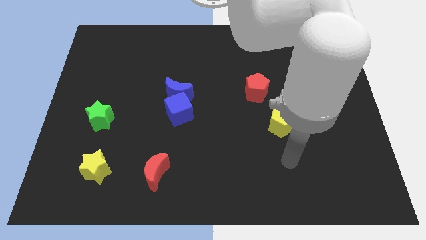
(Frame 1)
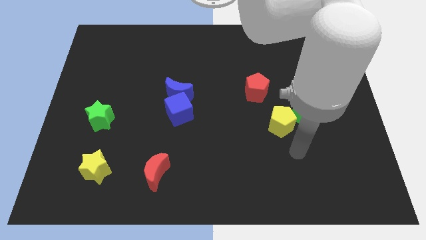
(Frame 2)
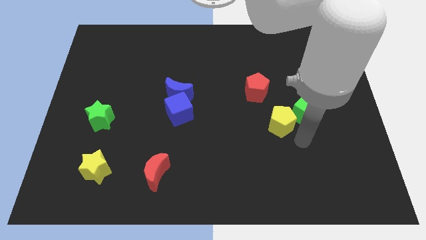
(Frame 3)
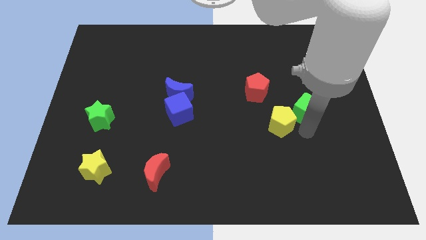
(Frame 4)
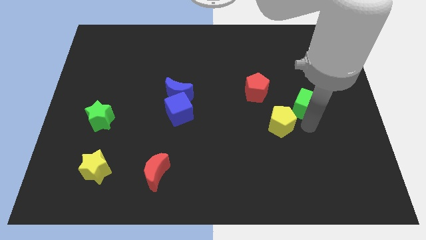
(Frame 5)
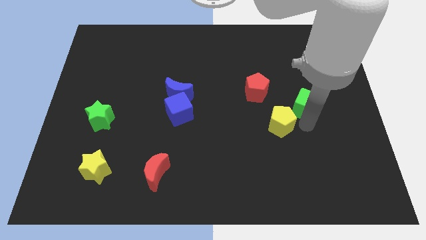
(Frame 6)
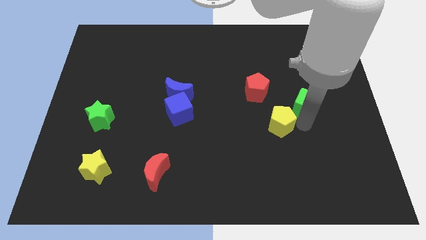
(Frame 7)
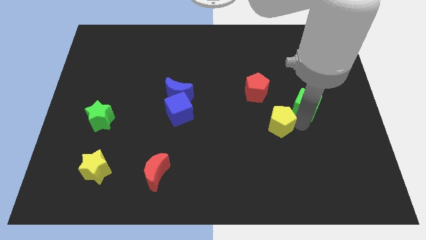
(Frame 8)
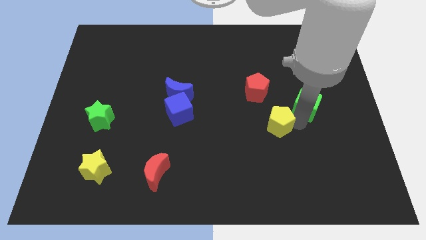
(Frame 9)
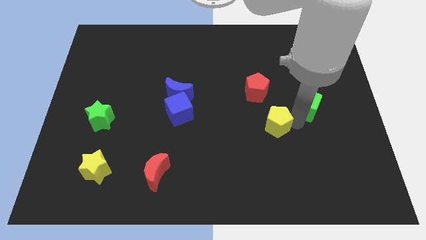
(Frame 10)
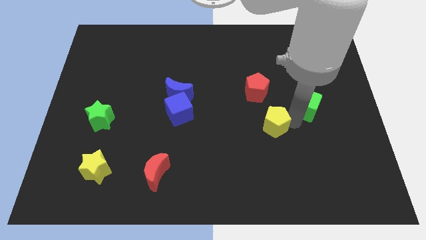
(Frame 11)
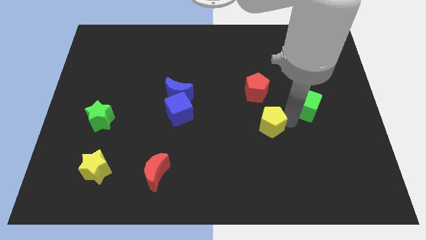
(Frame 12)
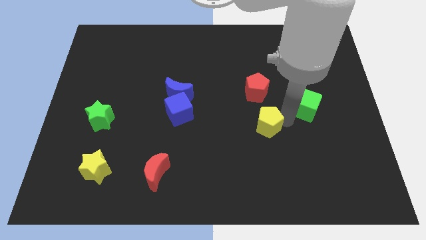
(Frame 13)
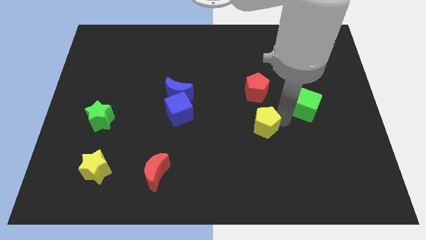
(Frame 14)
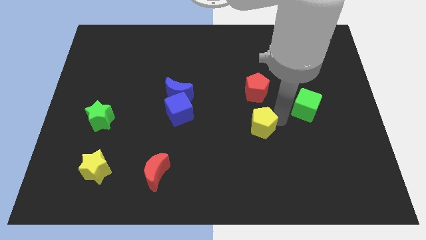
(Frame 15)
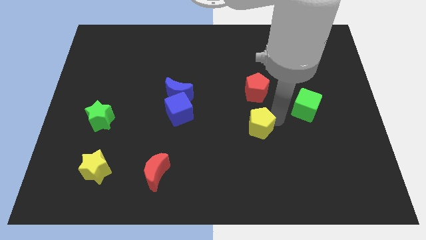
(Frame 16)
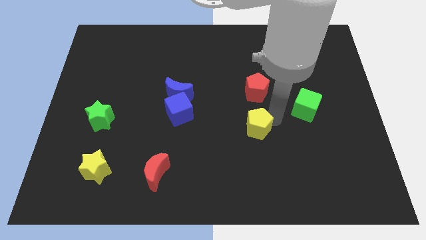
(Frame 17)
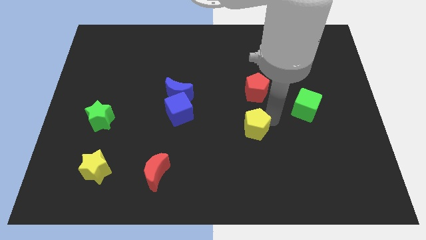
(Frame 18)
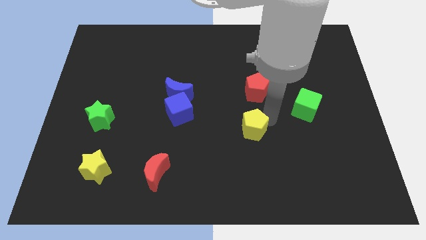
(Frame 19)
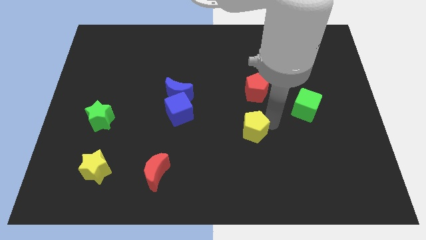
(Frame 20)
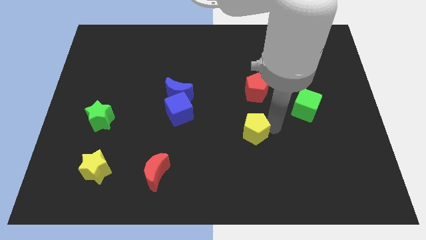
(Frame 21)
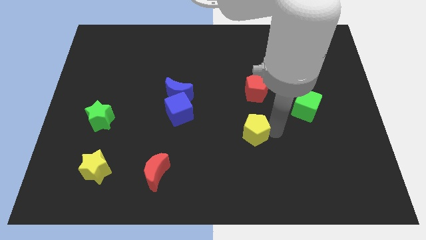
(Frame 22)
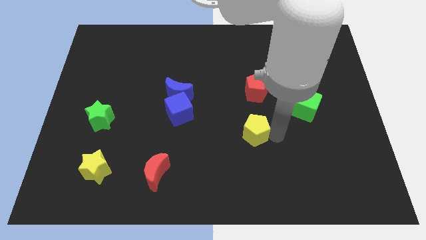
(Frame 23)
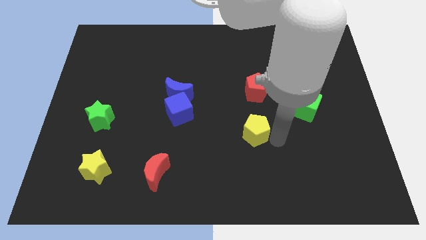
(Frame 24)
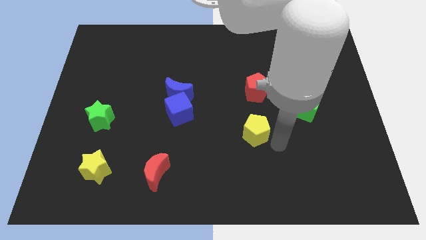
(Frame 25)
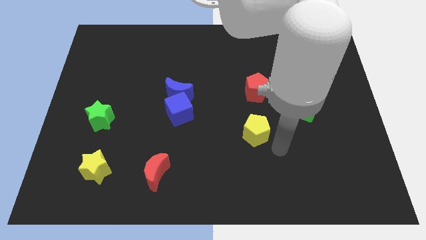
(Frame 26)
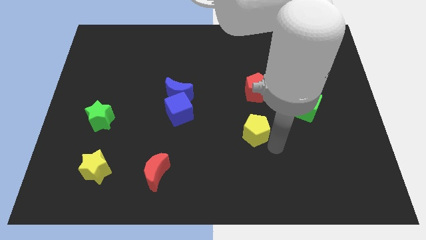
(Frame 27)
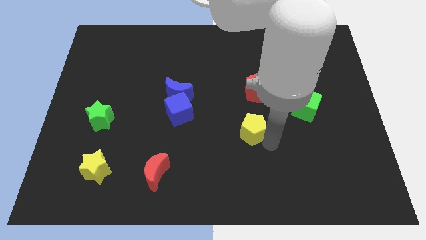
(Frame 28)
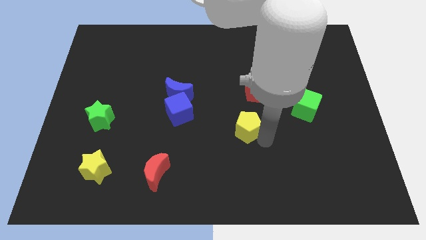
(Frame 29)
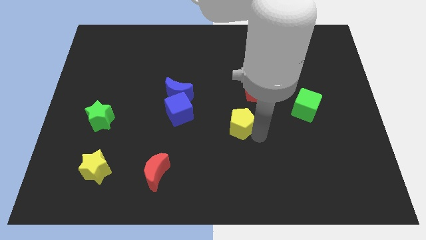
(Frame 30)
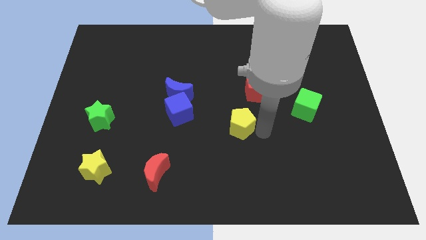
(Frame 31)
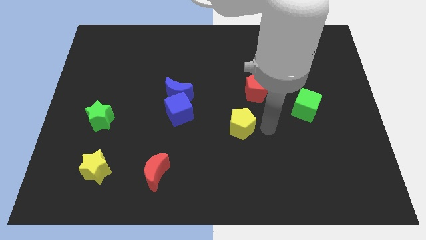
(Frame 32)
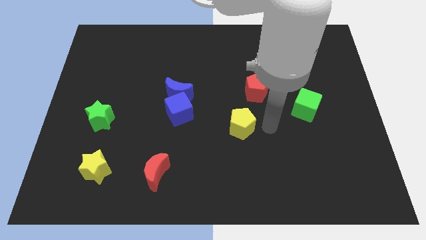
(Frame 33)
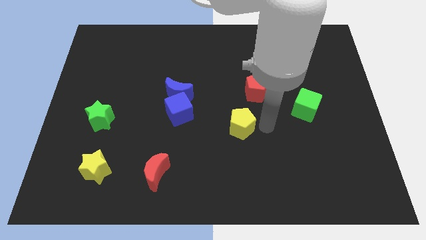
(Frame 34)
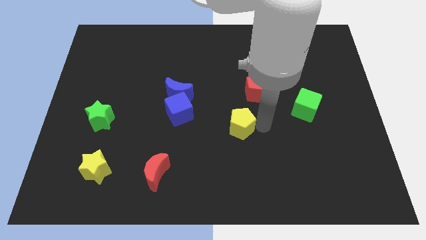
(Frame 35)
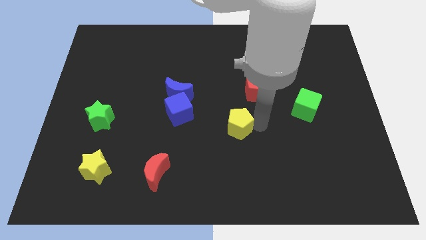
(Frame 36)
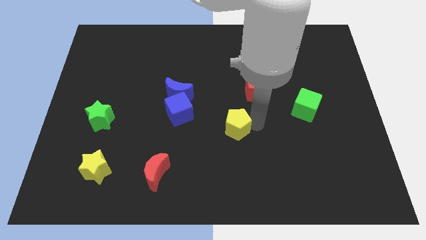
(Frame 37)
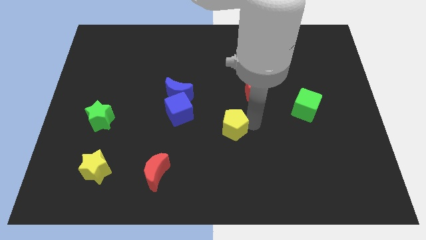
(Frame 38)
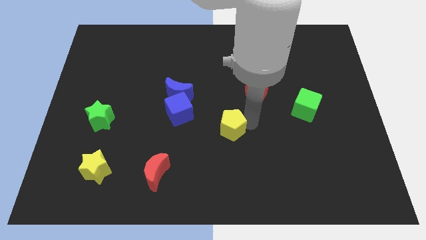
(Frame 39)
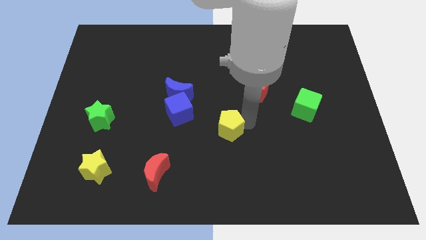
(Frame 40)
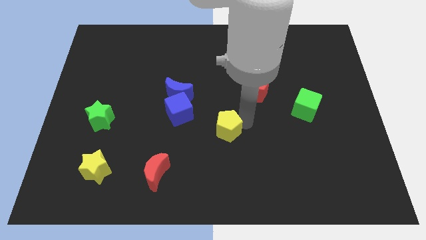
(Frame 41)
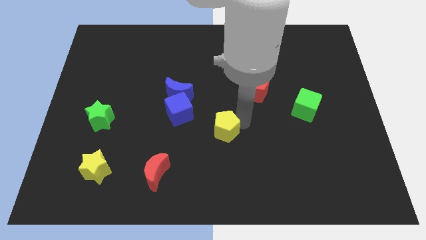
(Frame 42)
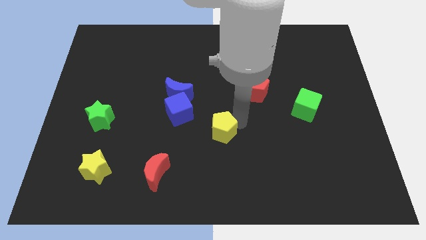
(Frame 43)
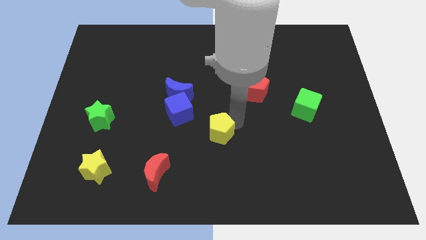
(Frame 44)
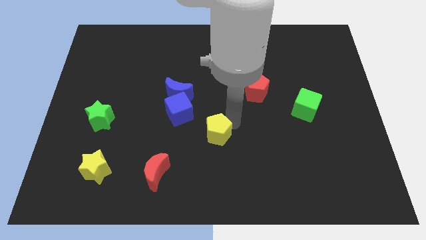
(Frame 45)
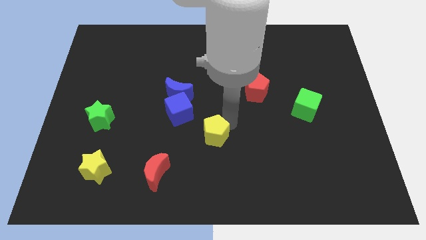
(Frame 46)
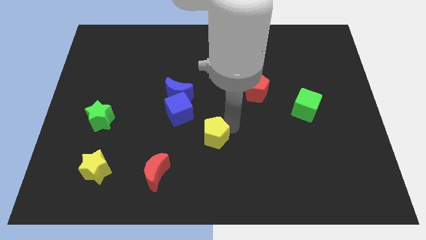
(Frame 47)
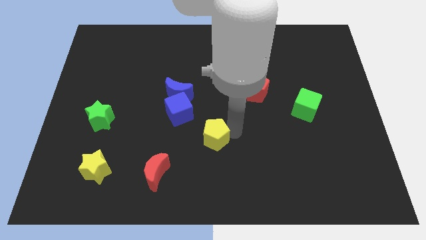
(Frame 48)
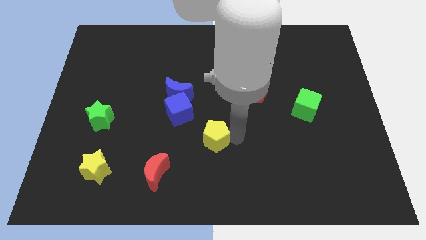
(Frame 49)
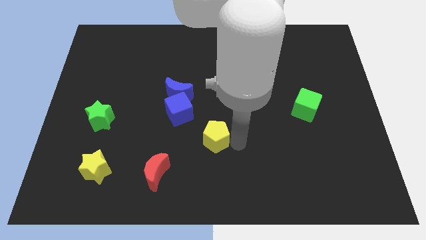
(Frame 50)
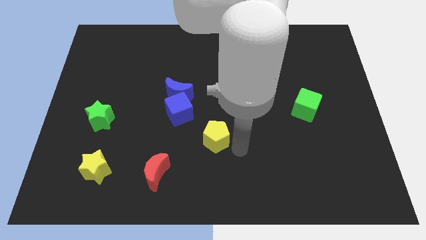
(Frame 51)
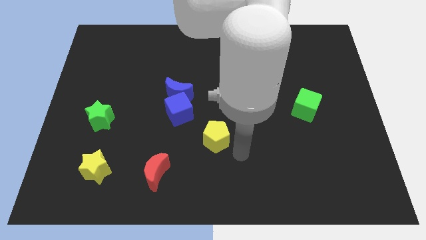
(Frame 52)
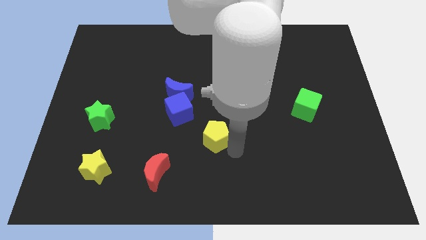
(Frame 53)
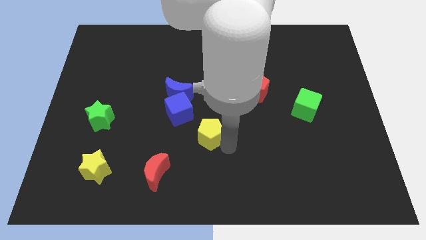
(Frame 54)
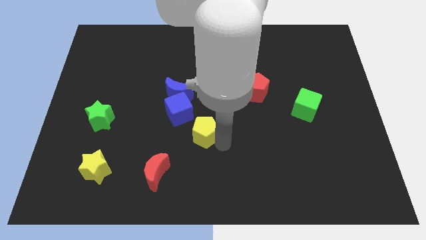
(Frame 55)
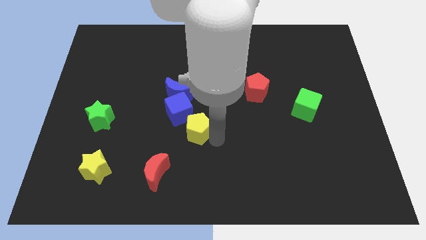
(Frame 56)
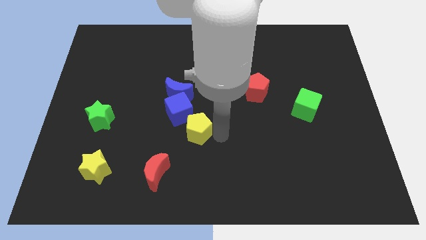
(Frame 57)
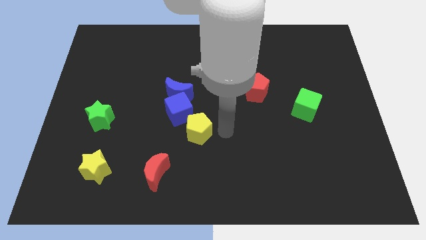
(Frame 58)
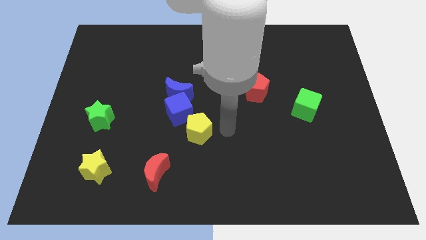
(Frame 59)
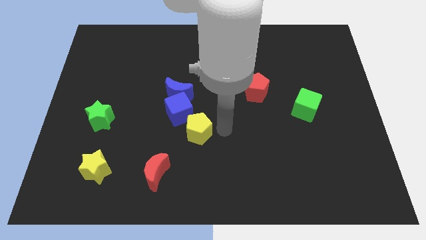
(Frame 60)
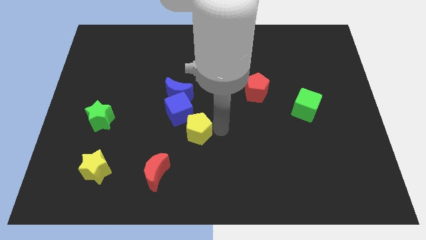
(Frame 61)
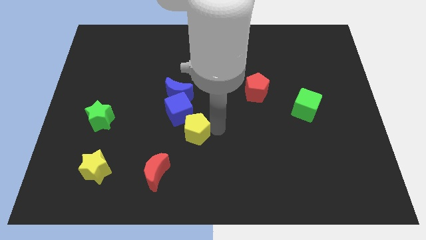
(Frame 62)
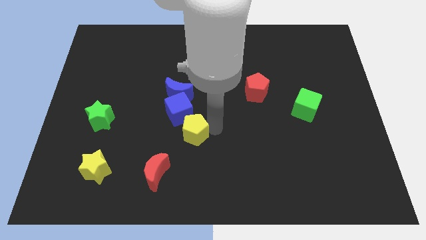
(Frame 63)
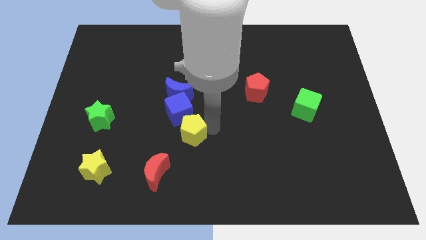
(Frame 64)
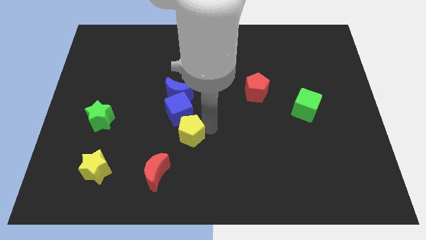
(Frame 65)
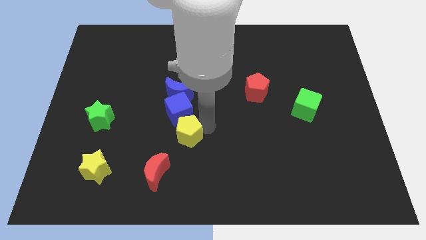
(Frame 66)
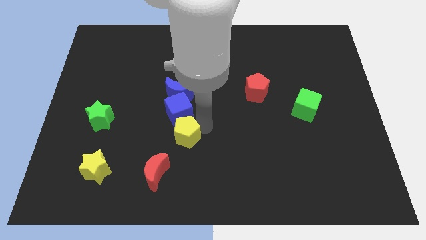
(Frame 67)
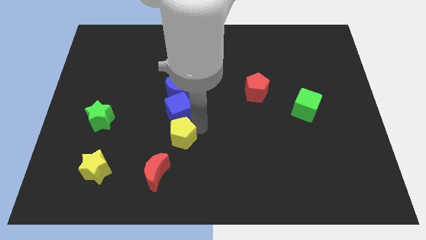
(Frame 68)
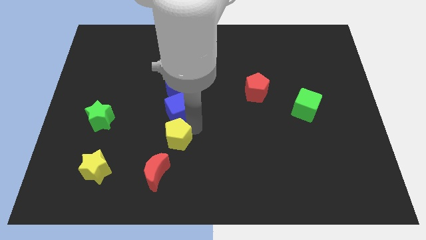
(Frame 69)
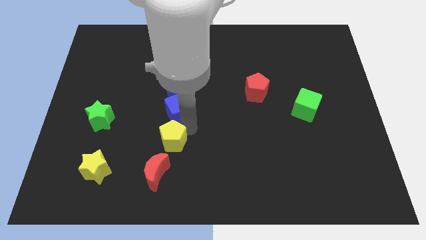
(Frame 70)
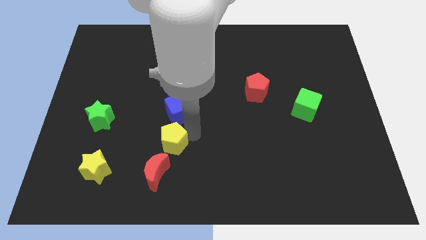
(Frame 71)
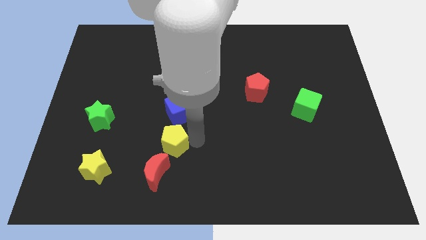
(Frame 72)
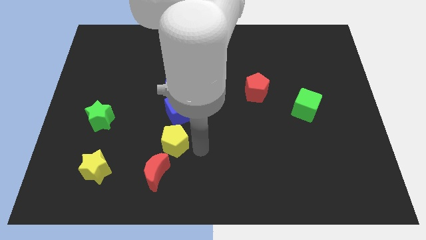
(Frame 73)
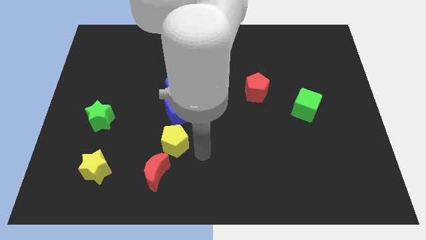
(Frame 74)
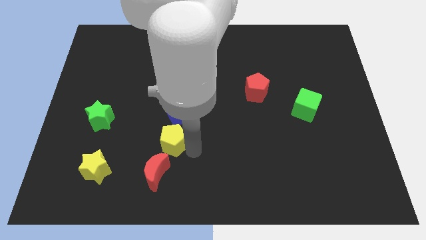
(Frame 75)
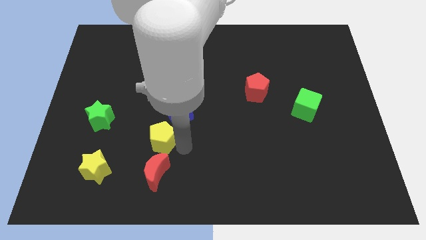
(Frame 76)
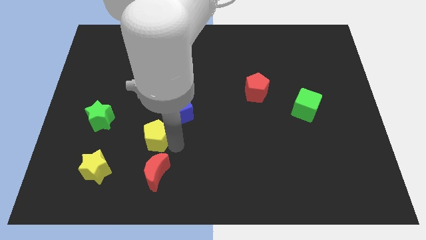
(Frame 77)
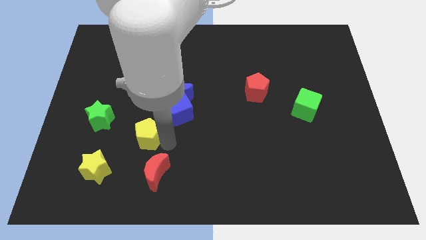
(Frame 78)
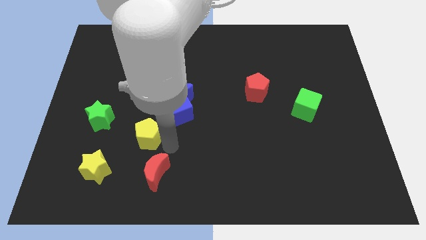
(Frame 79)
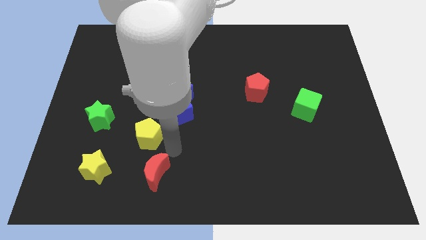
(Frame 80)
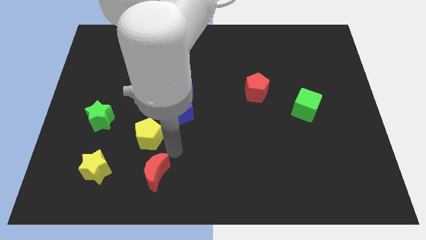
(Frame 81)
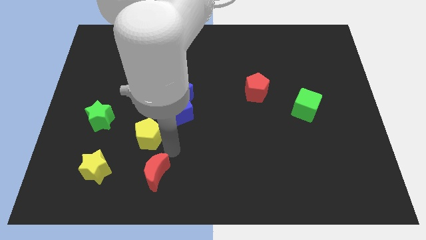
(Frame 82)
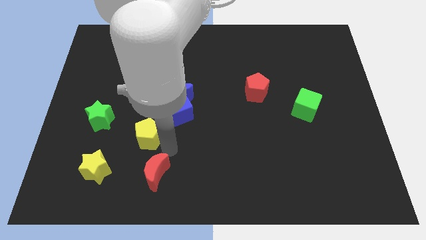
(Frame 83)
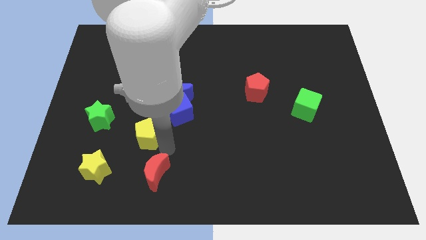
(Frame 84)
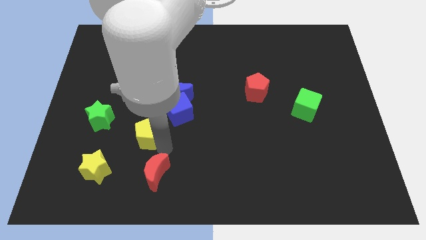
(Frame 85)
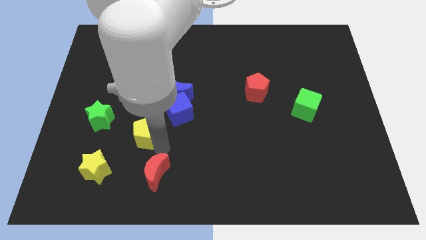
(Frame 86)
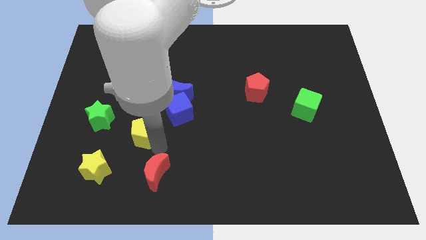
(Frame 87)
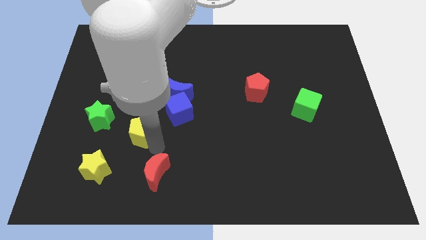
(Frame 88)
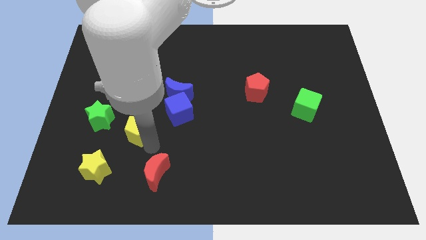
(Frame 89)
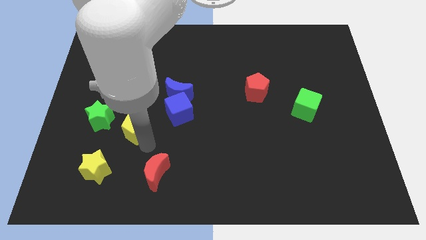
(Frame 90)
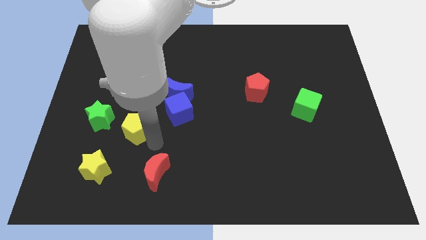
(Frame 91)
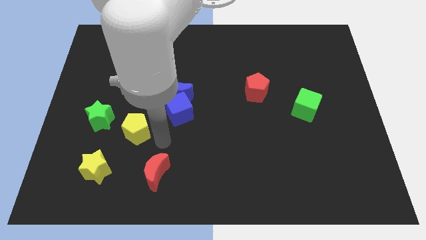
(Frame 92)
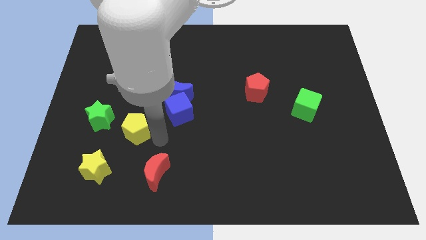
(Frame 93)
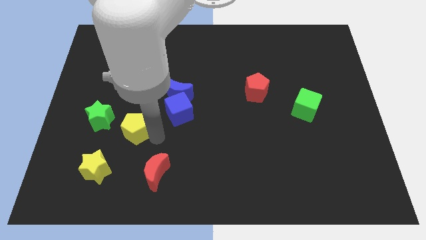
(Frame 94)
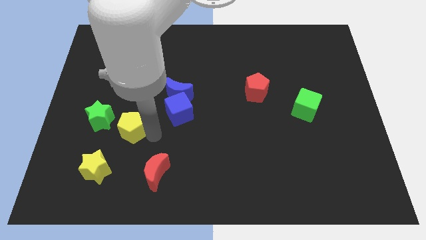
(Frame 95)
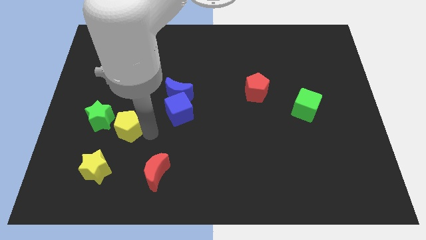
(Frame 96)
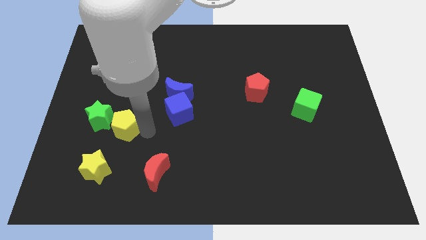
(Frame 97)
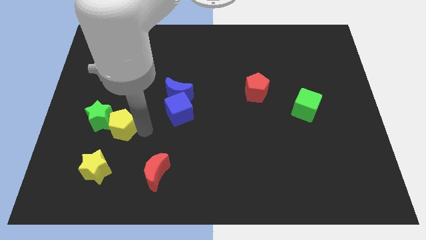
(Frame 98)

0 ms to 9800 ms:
slide the yellow pentagon next to the green star
